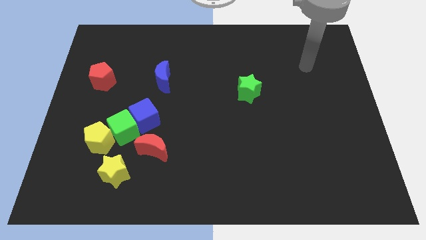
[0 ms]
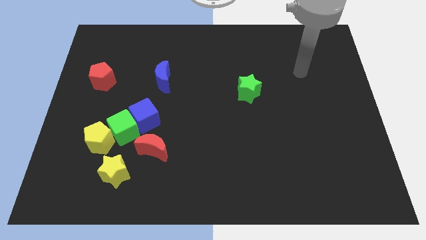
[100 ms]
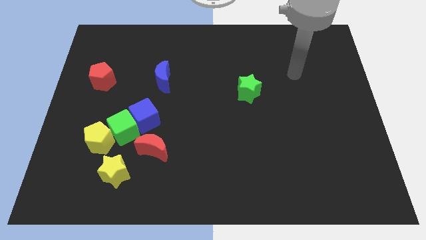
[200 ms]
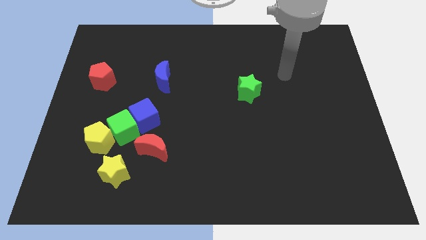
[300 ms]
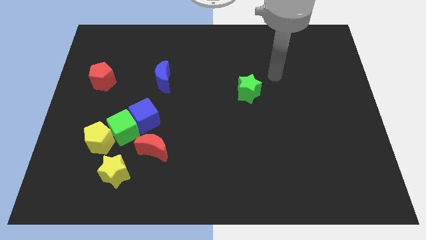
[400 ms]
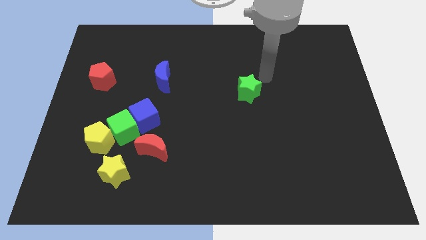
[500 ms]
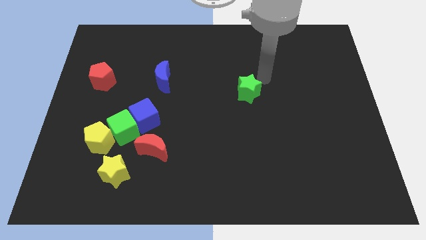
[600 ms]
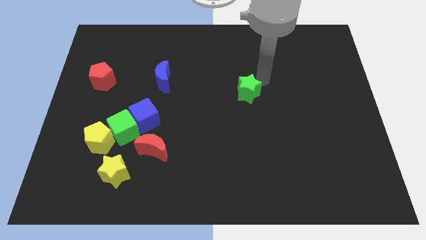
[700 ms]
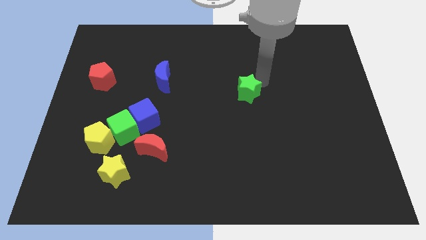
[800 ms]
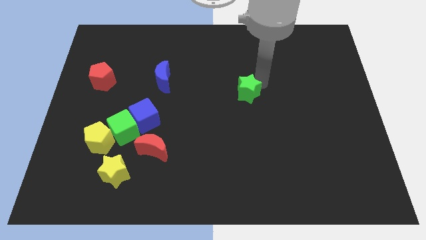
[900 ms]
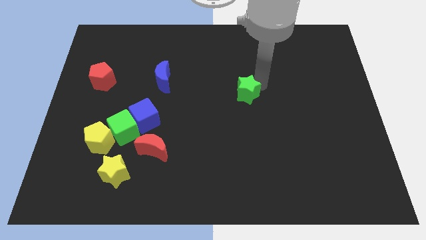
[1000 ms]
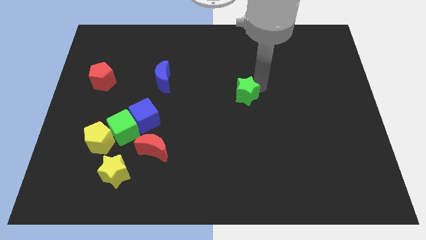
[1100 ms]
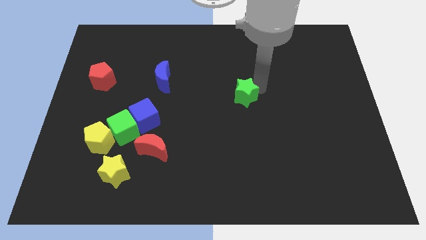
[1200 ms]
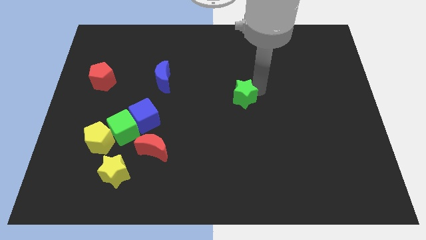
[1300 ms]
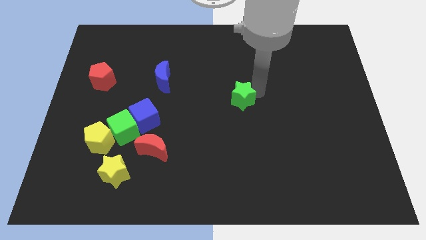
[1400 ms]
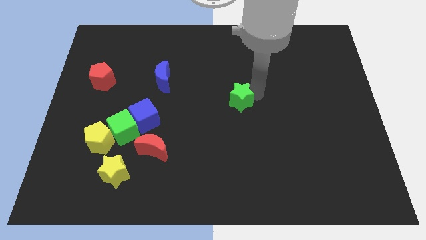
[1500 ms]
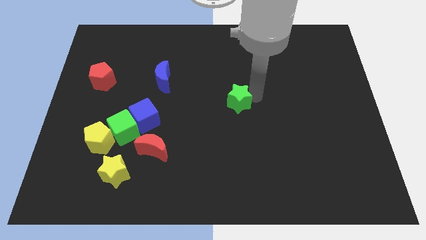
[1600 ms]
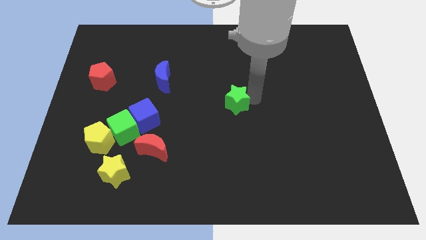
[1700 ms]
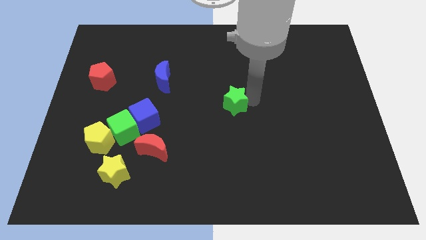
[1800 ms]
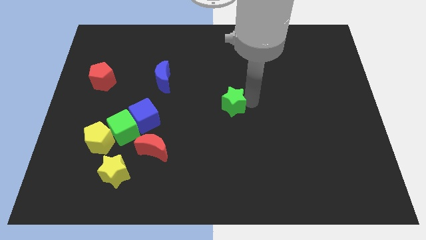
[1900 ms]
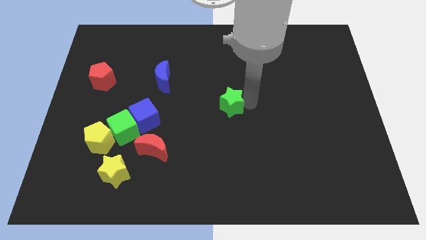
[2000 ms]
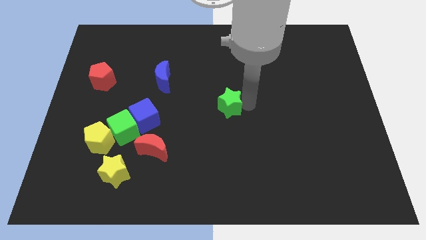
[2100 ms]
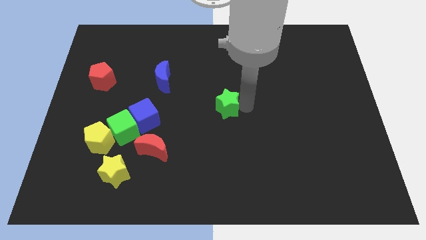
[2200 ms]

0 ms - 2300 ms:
move the green star slightly down and then left

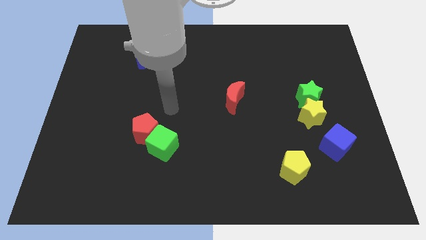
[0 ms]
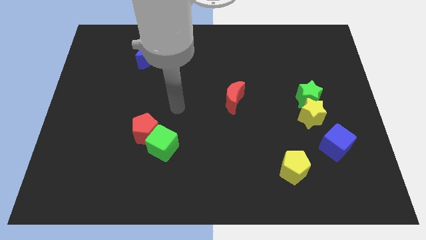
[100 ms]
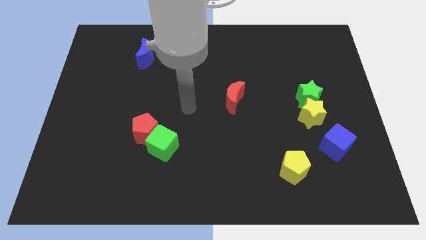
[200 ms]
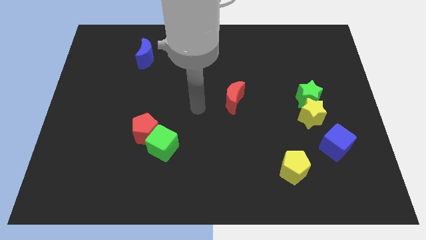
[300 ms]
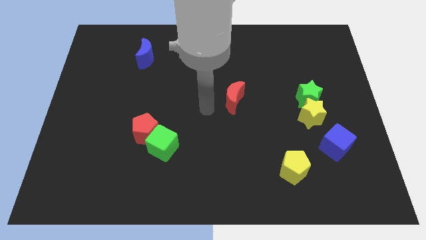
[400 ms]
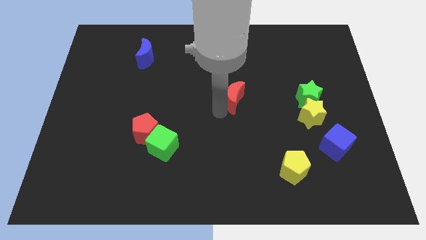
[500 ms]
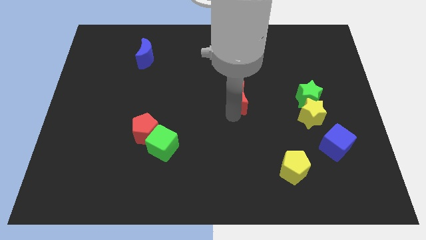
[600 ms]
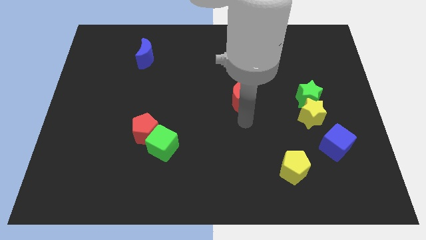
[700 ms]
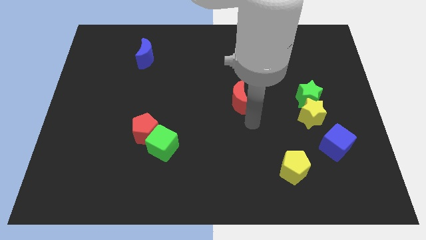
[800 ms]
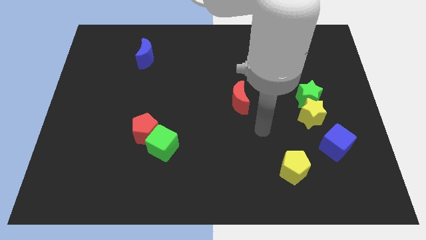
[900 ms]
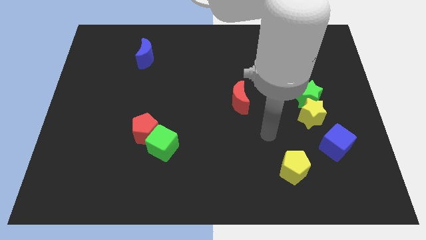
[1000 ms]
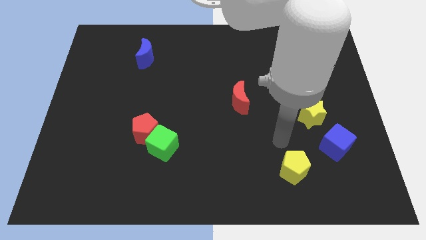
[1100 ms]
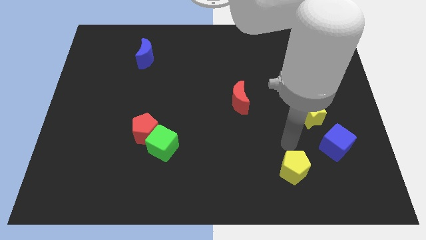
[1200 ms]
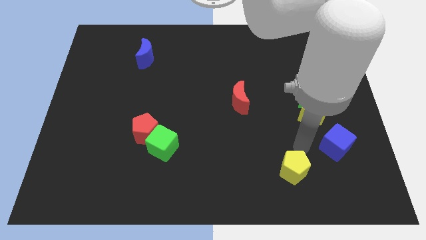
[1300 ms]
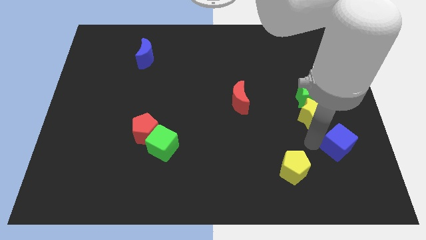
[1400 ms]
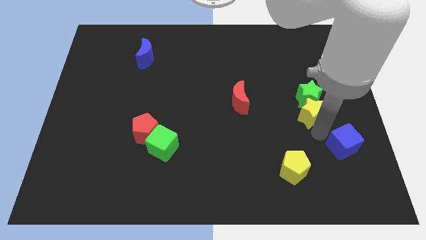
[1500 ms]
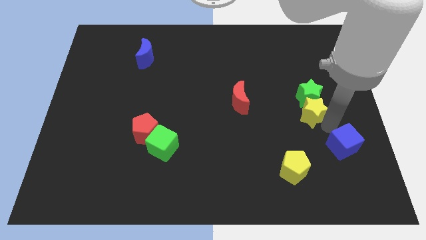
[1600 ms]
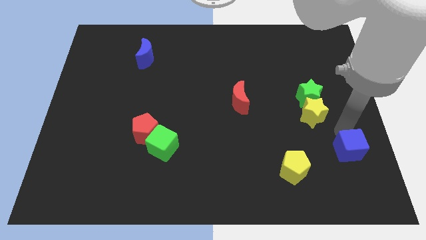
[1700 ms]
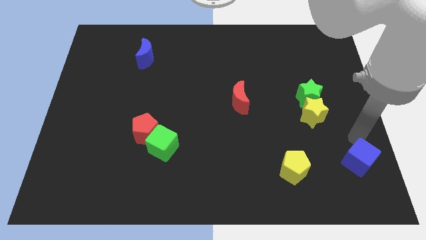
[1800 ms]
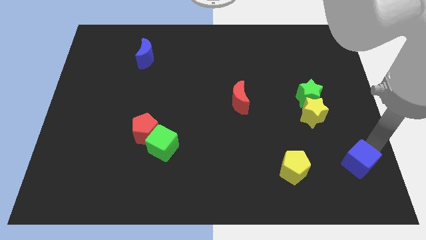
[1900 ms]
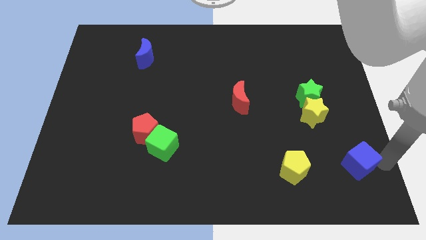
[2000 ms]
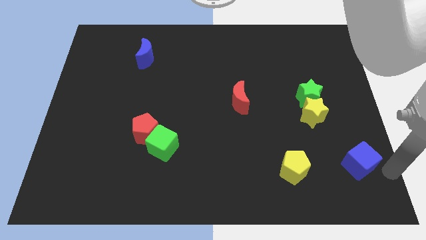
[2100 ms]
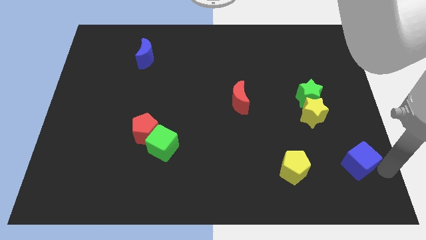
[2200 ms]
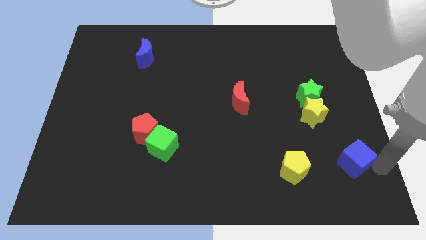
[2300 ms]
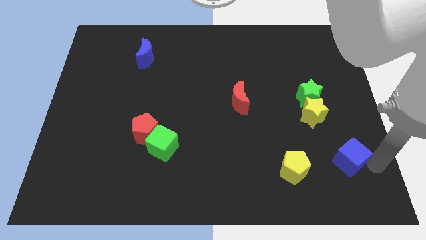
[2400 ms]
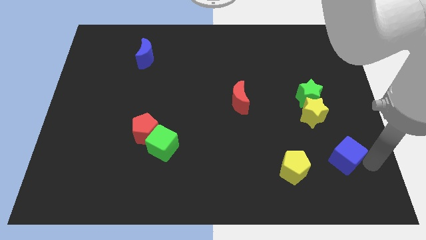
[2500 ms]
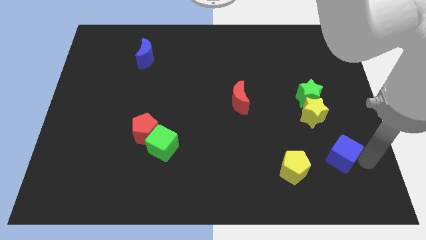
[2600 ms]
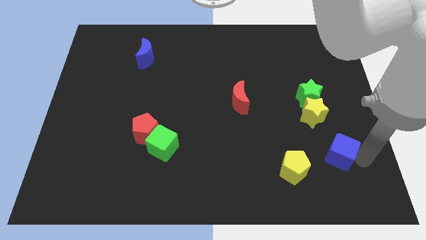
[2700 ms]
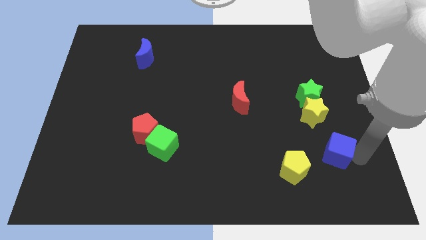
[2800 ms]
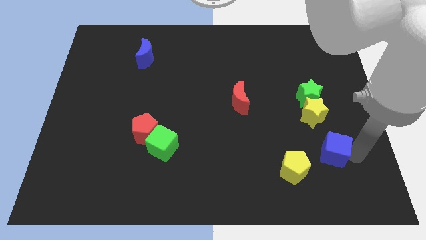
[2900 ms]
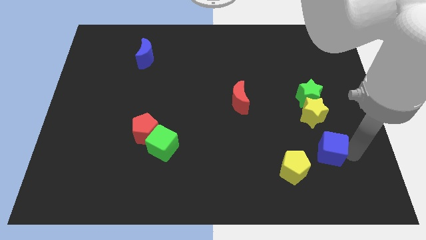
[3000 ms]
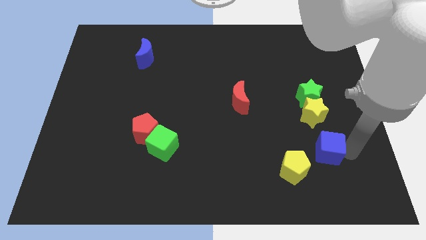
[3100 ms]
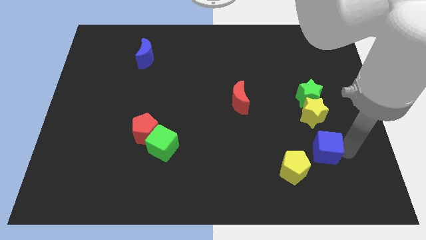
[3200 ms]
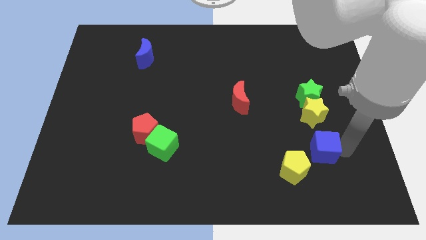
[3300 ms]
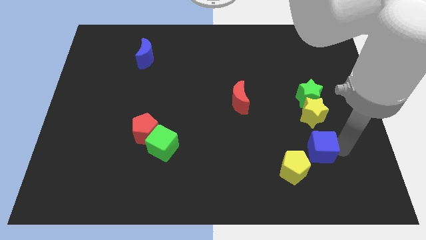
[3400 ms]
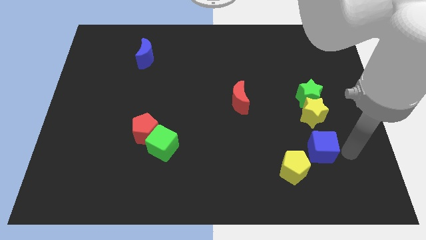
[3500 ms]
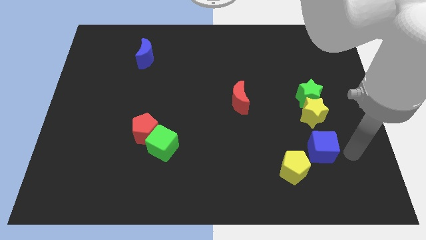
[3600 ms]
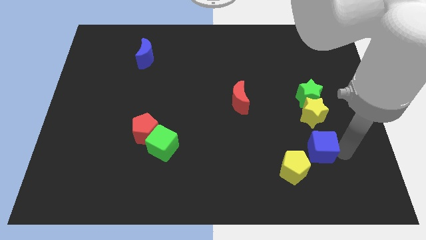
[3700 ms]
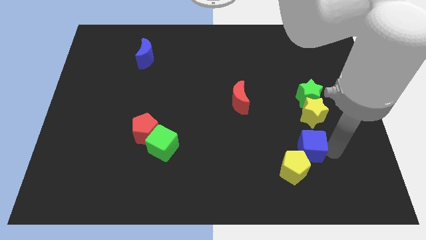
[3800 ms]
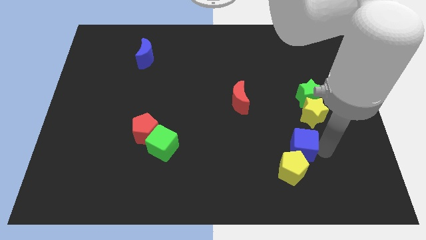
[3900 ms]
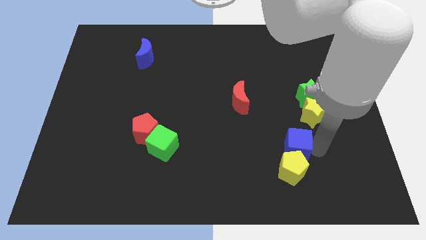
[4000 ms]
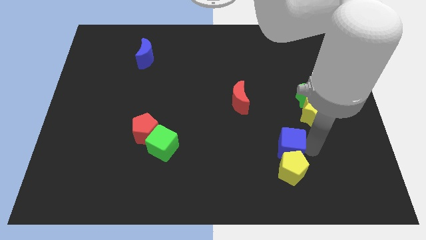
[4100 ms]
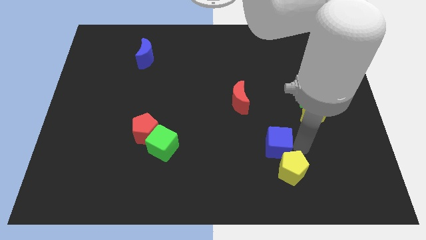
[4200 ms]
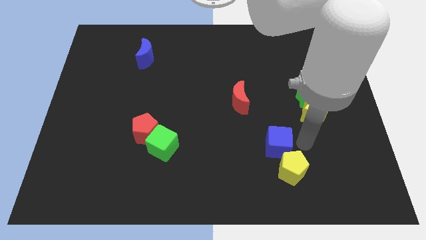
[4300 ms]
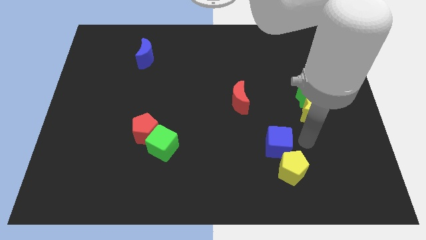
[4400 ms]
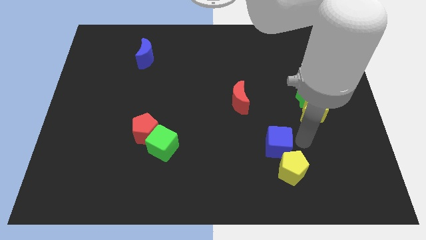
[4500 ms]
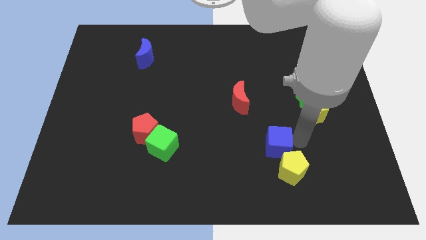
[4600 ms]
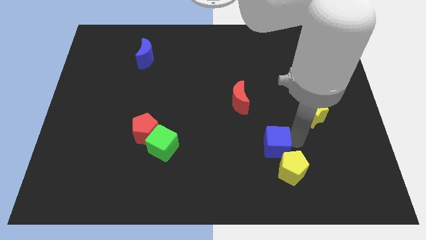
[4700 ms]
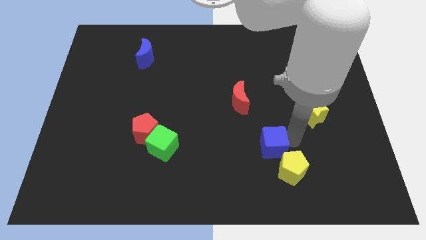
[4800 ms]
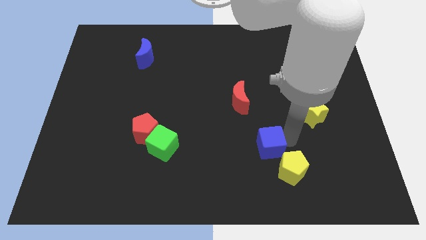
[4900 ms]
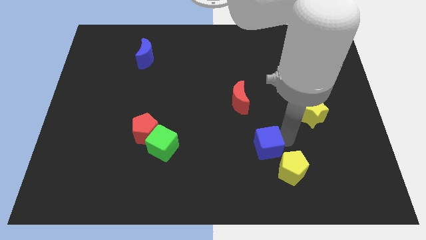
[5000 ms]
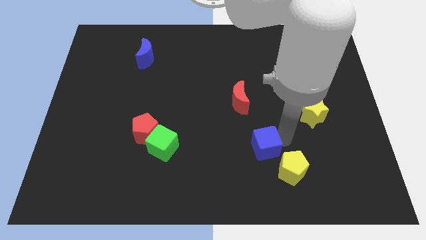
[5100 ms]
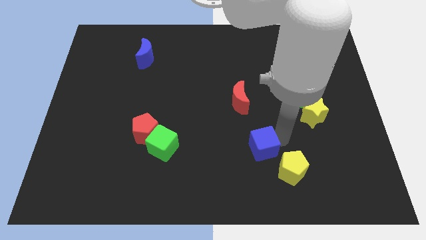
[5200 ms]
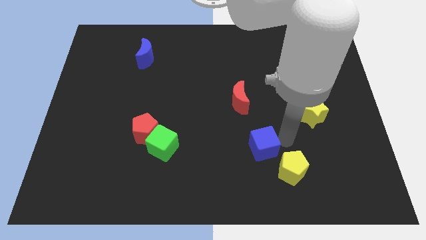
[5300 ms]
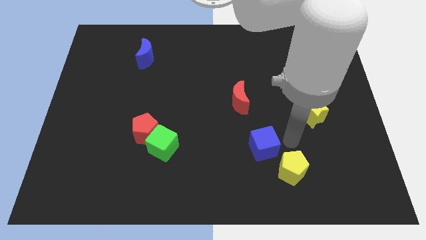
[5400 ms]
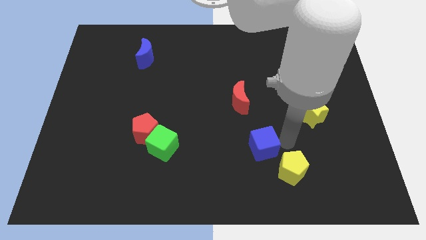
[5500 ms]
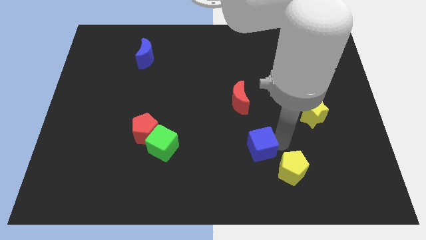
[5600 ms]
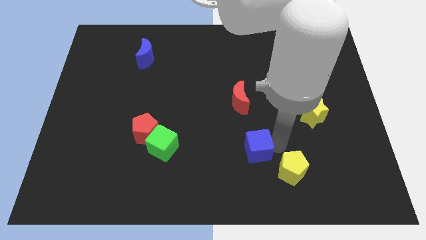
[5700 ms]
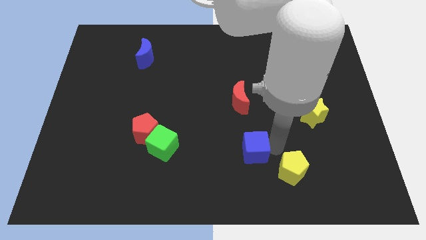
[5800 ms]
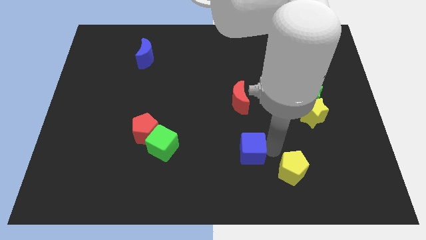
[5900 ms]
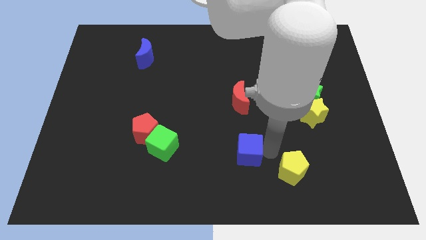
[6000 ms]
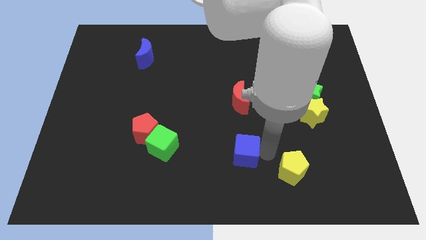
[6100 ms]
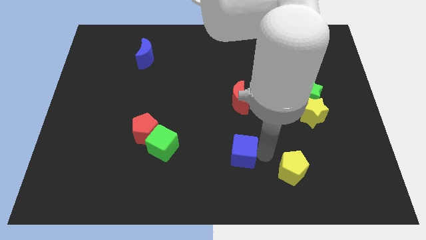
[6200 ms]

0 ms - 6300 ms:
slide the blue cube to the left
